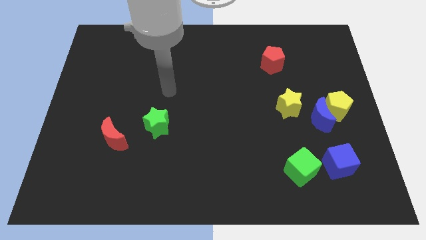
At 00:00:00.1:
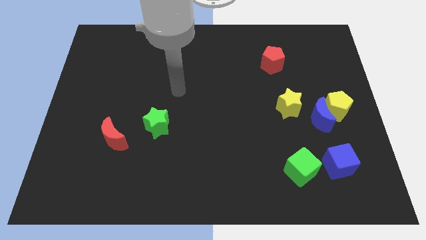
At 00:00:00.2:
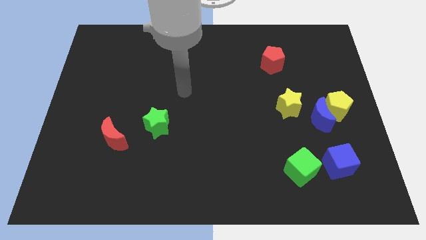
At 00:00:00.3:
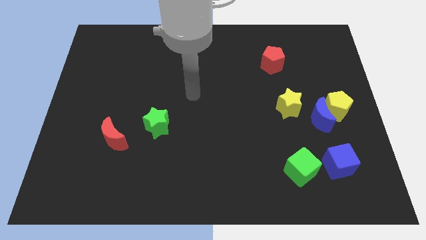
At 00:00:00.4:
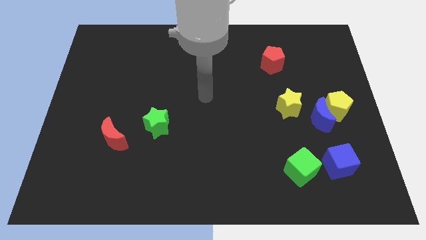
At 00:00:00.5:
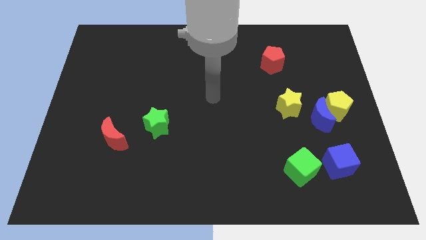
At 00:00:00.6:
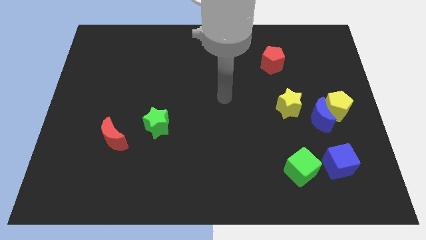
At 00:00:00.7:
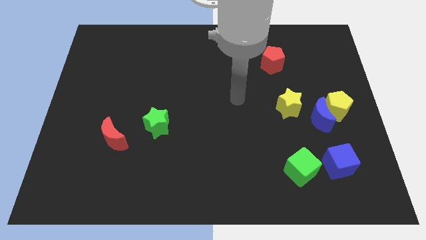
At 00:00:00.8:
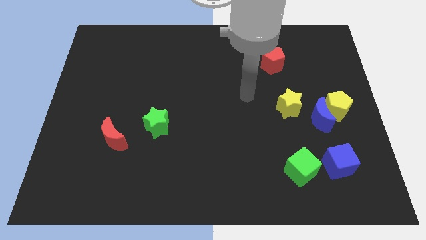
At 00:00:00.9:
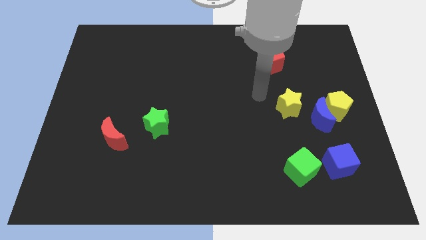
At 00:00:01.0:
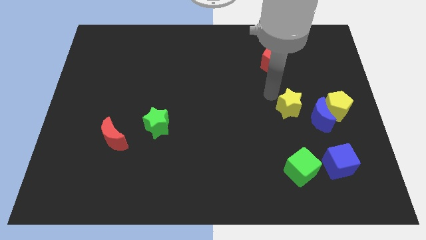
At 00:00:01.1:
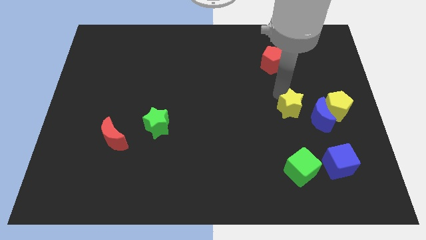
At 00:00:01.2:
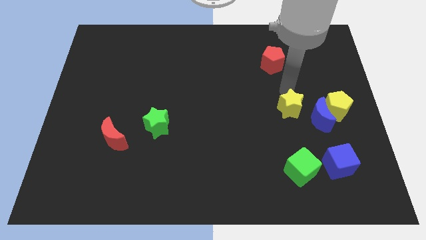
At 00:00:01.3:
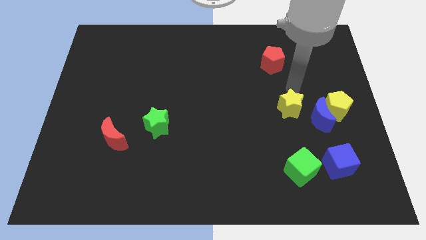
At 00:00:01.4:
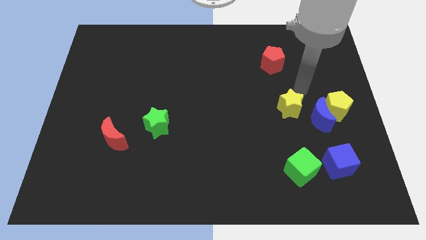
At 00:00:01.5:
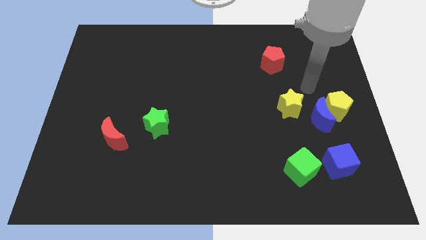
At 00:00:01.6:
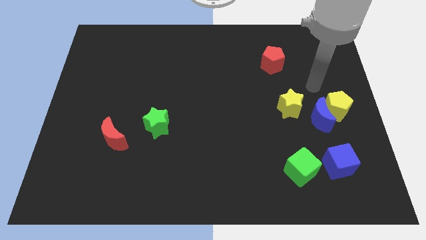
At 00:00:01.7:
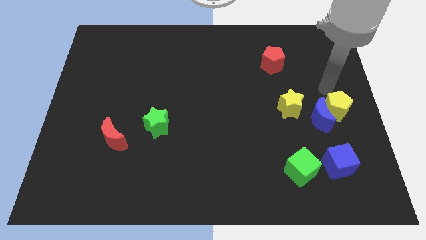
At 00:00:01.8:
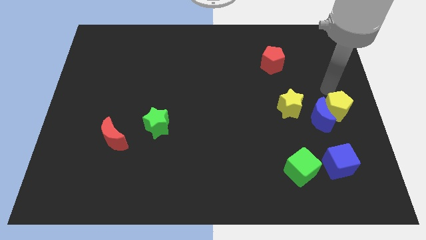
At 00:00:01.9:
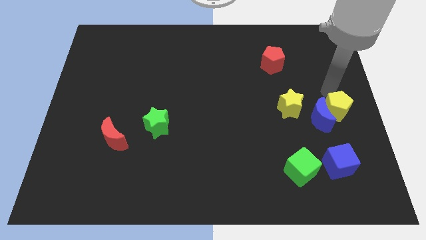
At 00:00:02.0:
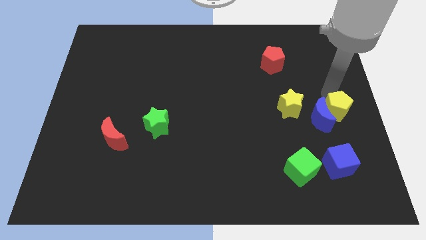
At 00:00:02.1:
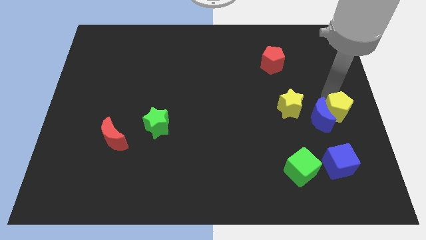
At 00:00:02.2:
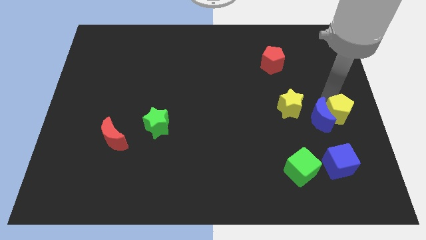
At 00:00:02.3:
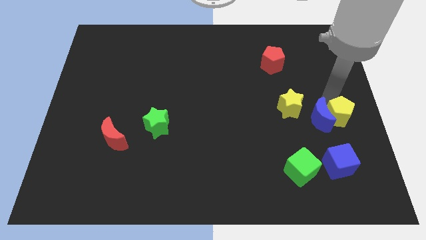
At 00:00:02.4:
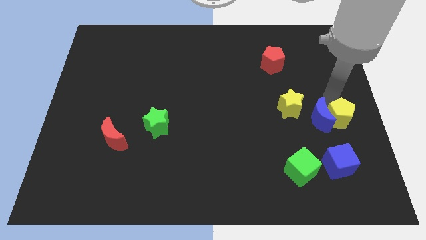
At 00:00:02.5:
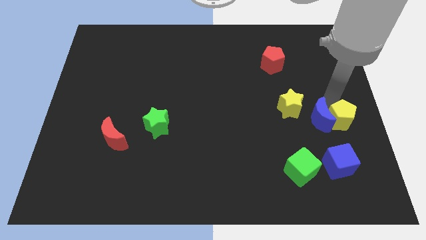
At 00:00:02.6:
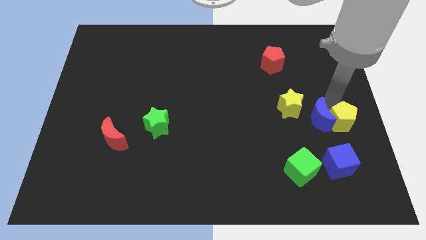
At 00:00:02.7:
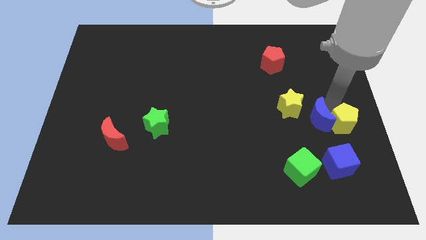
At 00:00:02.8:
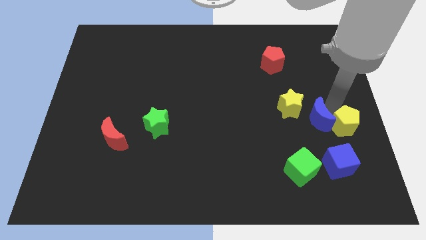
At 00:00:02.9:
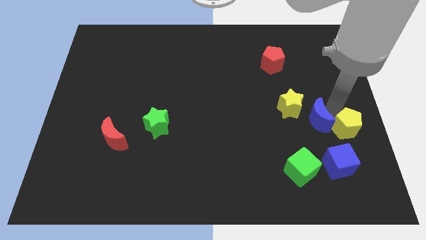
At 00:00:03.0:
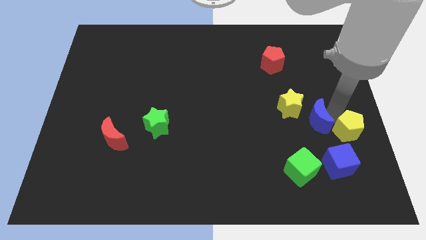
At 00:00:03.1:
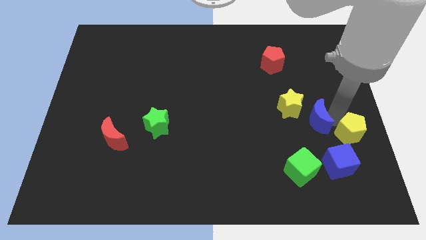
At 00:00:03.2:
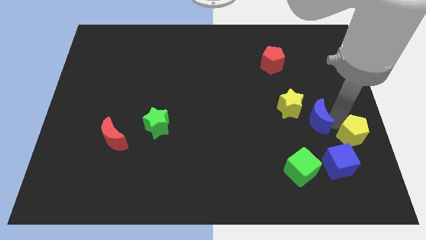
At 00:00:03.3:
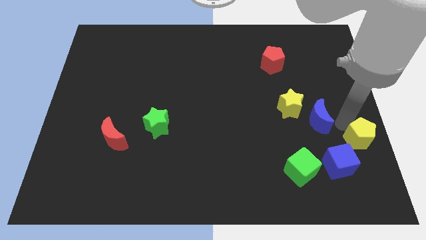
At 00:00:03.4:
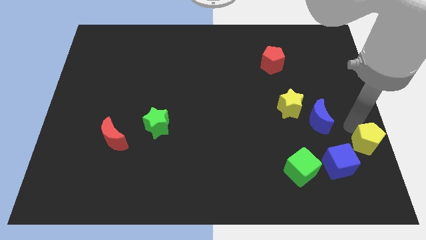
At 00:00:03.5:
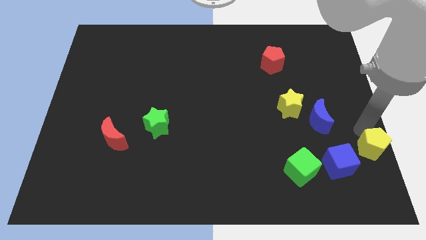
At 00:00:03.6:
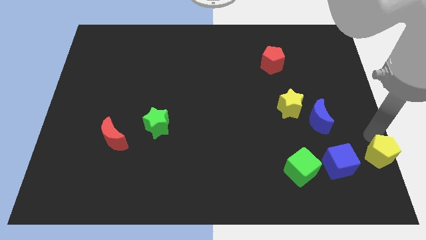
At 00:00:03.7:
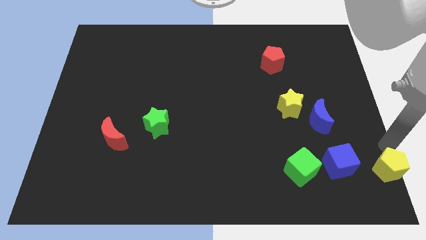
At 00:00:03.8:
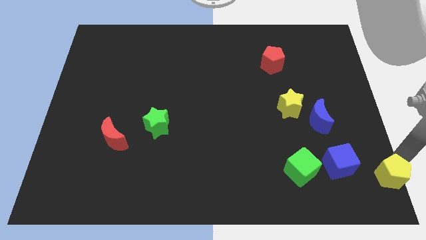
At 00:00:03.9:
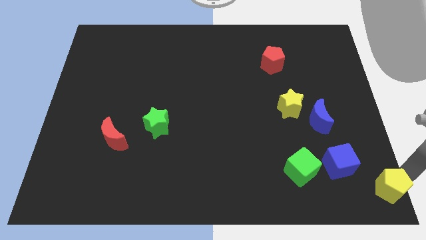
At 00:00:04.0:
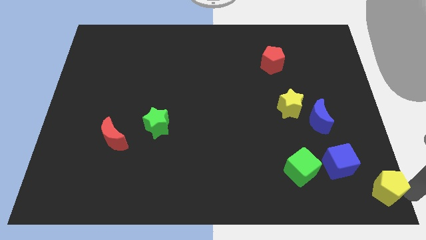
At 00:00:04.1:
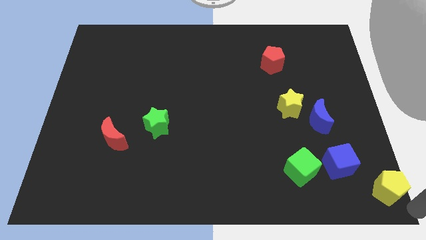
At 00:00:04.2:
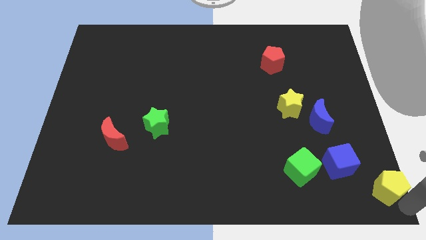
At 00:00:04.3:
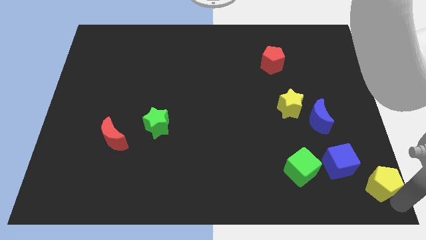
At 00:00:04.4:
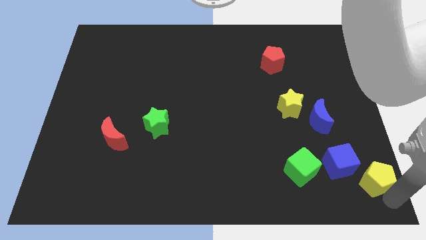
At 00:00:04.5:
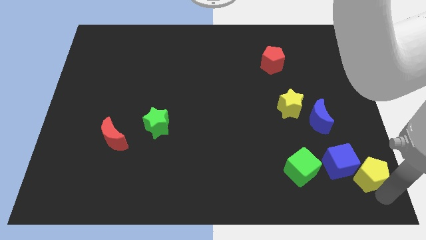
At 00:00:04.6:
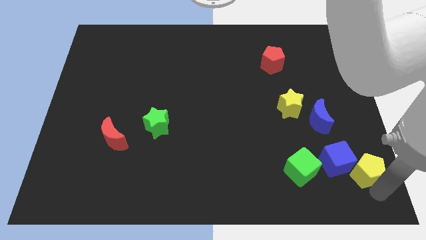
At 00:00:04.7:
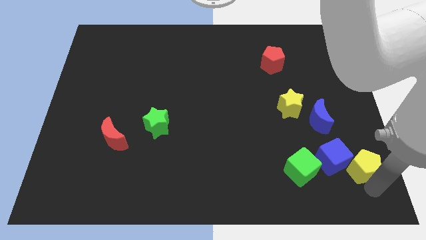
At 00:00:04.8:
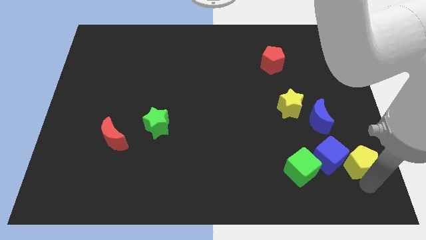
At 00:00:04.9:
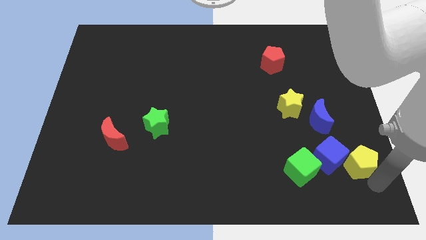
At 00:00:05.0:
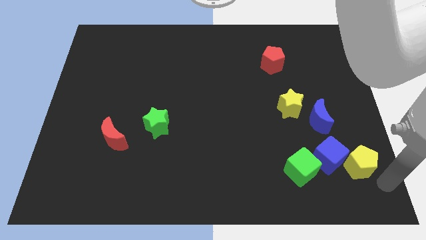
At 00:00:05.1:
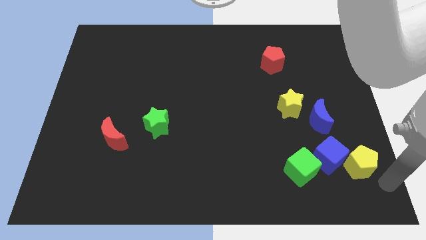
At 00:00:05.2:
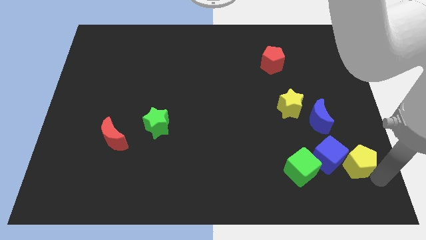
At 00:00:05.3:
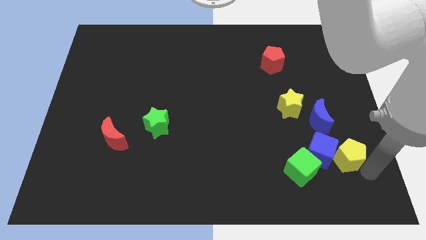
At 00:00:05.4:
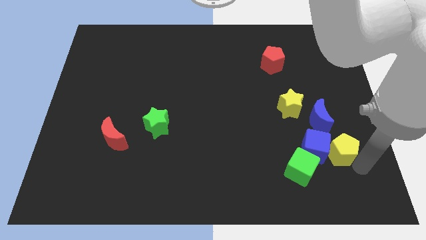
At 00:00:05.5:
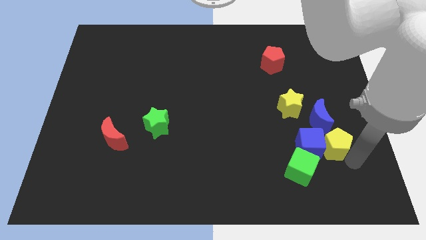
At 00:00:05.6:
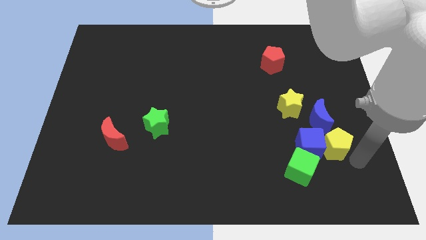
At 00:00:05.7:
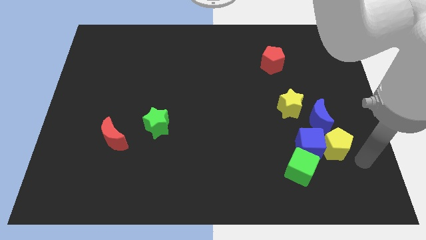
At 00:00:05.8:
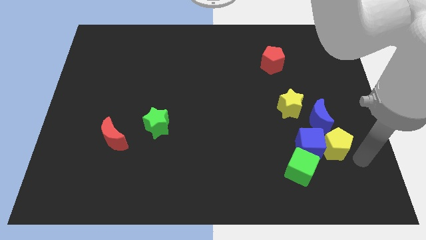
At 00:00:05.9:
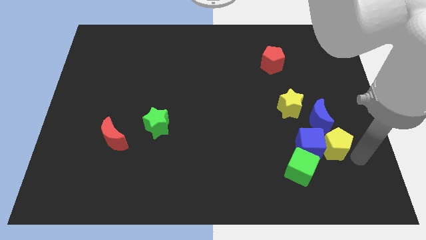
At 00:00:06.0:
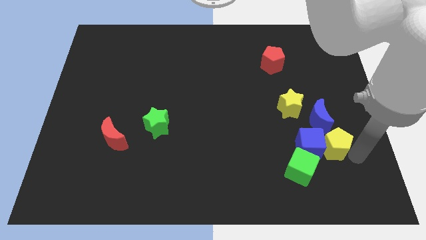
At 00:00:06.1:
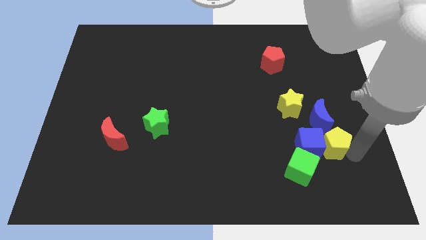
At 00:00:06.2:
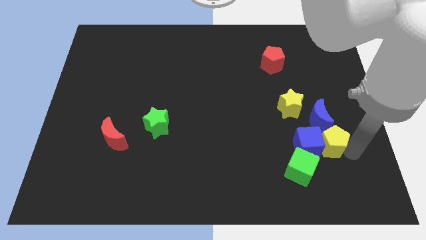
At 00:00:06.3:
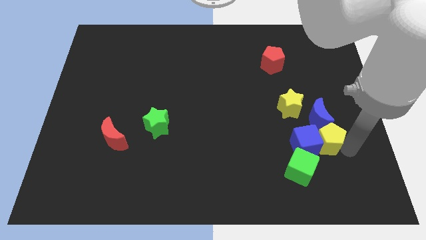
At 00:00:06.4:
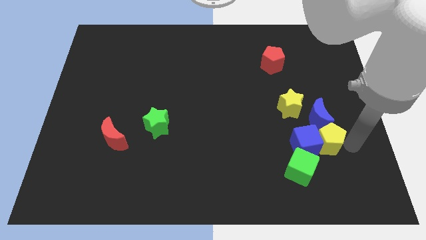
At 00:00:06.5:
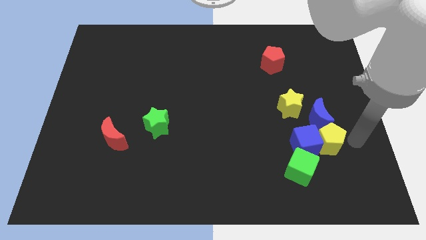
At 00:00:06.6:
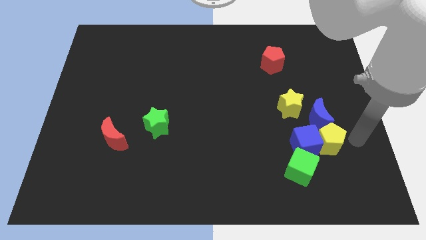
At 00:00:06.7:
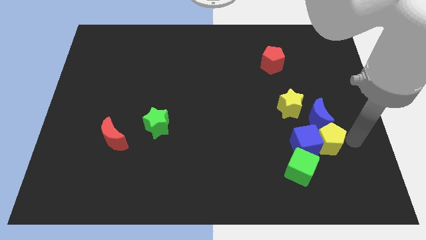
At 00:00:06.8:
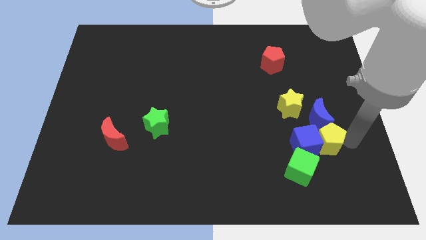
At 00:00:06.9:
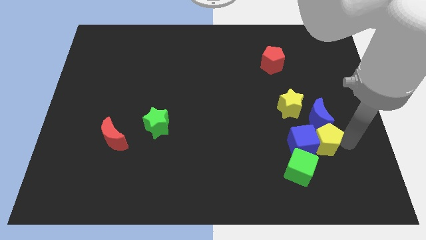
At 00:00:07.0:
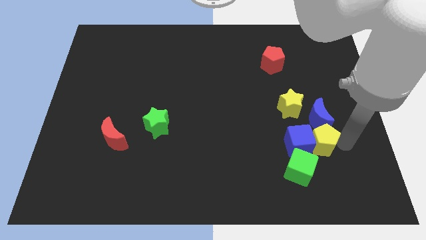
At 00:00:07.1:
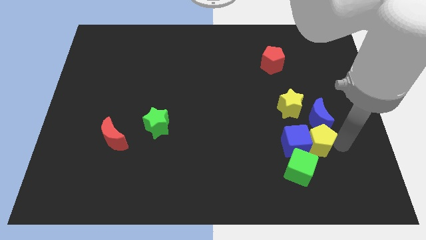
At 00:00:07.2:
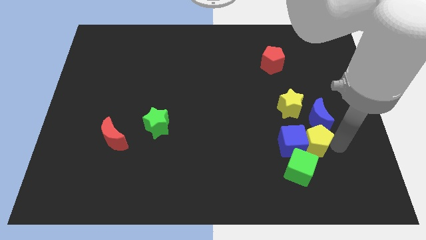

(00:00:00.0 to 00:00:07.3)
slide the yellow pentagon below the yellow star
